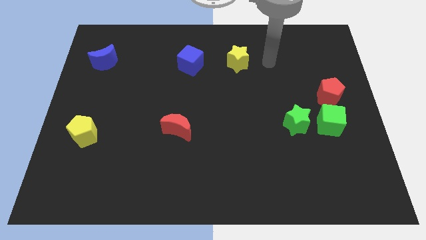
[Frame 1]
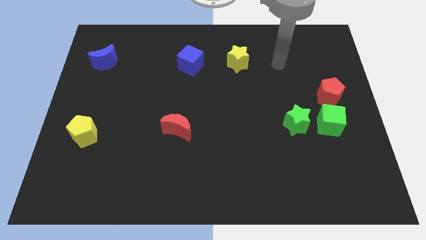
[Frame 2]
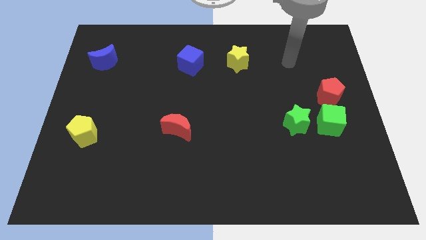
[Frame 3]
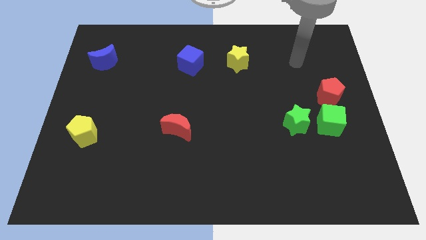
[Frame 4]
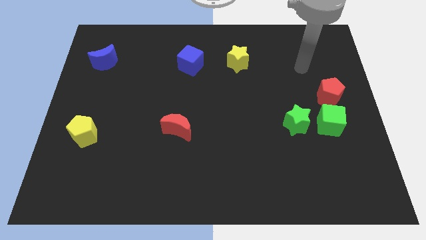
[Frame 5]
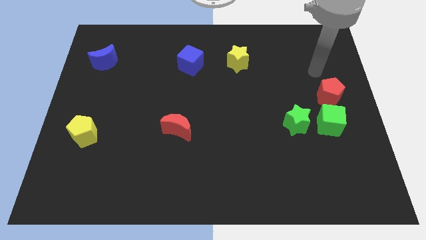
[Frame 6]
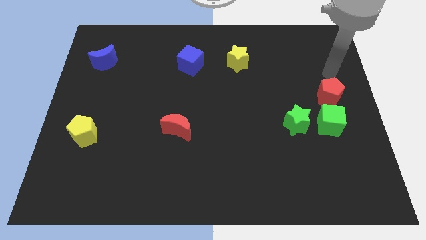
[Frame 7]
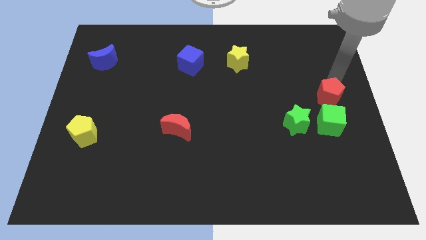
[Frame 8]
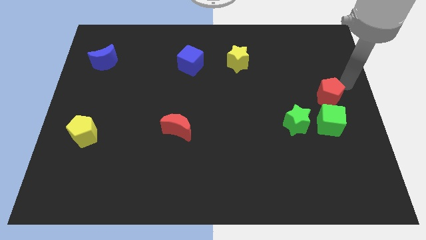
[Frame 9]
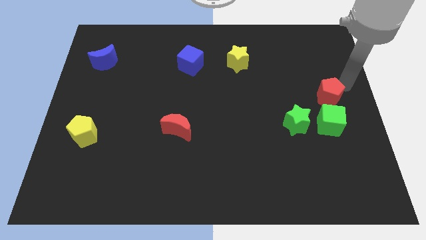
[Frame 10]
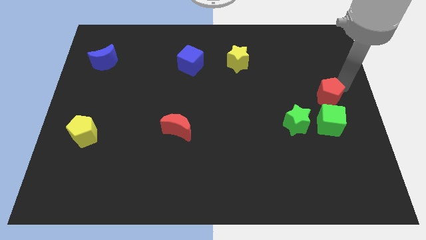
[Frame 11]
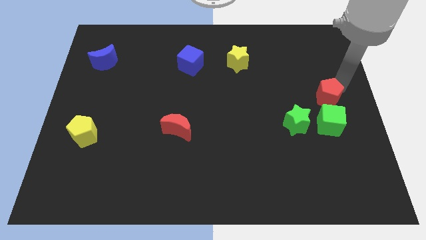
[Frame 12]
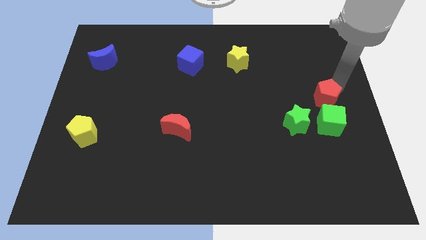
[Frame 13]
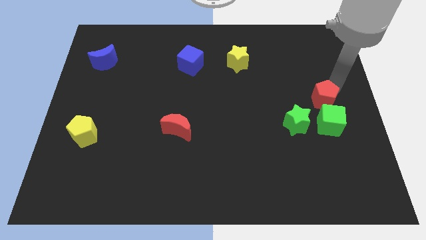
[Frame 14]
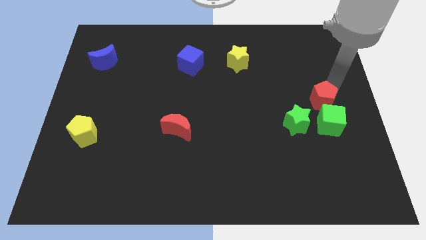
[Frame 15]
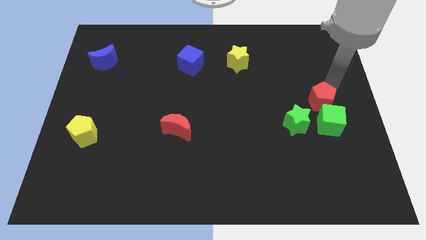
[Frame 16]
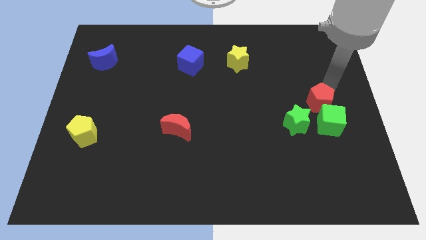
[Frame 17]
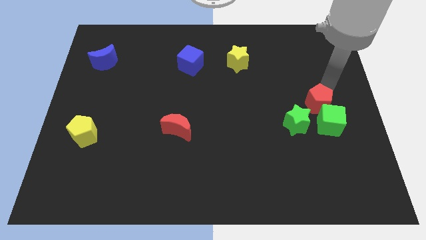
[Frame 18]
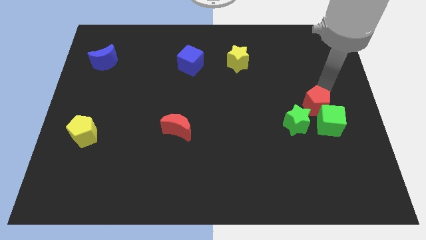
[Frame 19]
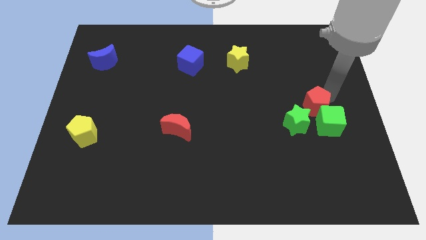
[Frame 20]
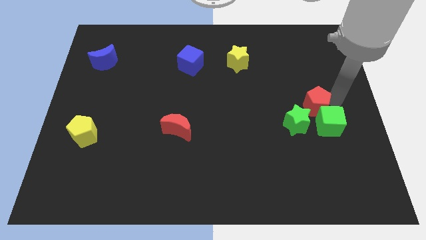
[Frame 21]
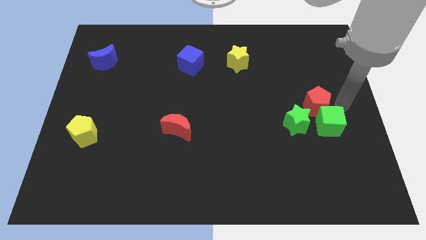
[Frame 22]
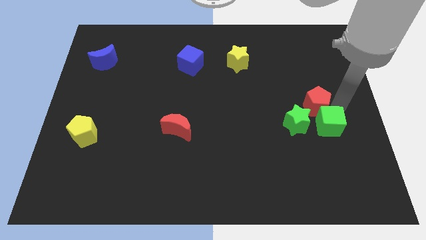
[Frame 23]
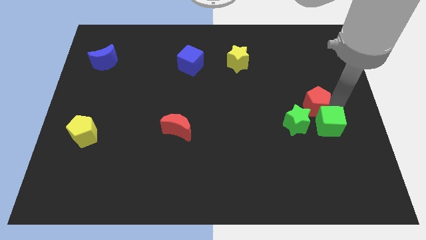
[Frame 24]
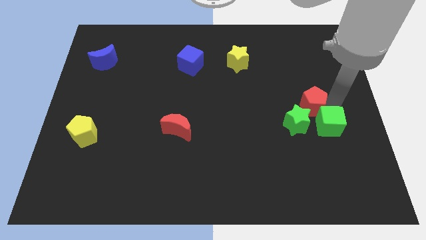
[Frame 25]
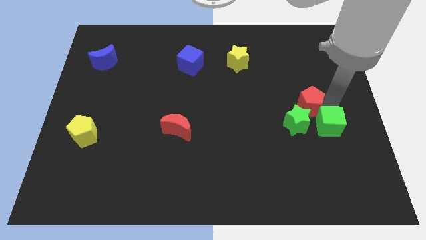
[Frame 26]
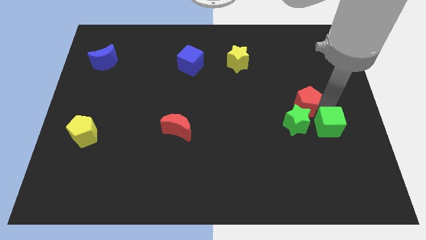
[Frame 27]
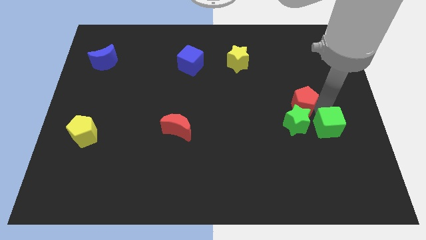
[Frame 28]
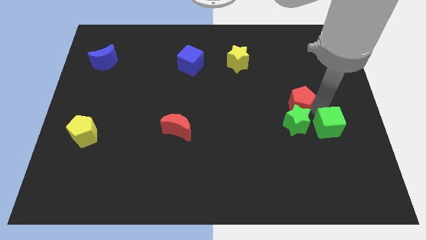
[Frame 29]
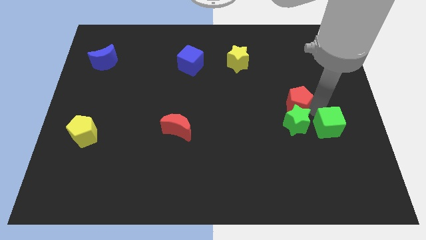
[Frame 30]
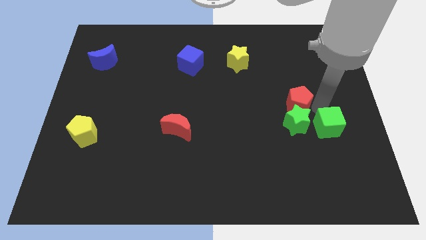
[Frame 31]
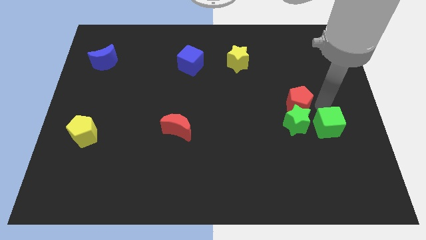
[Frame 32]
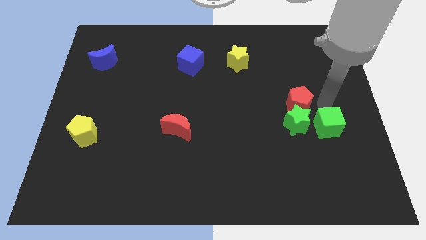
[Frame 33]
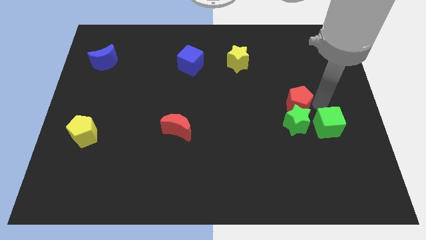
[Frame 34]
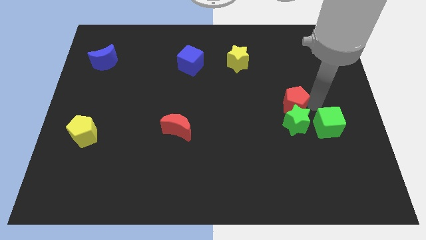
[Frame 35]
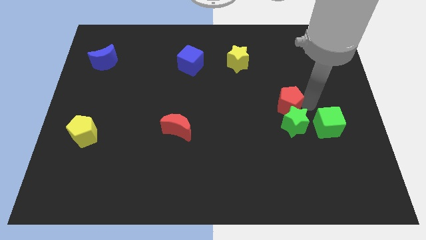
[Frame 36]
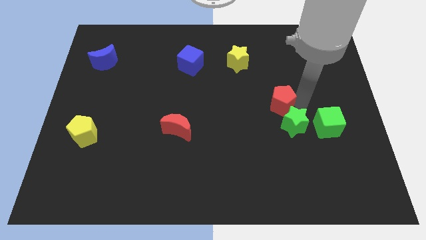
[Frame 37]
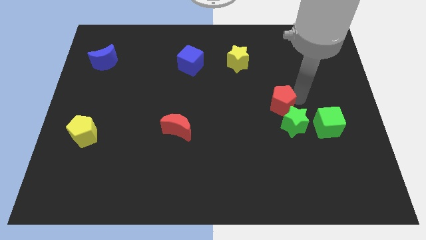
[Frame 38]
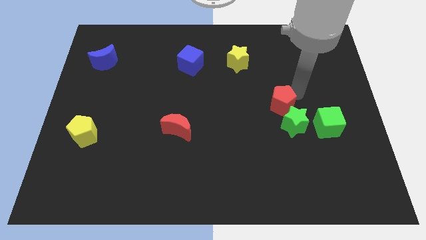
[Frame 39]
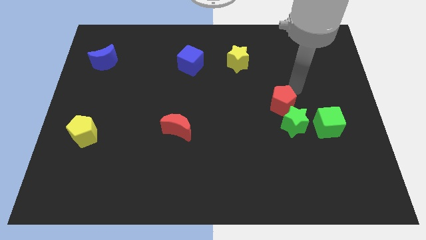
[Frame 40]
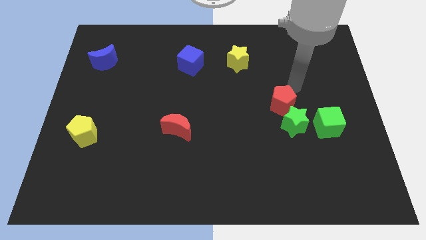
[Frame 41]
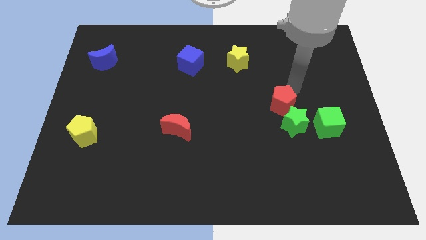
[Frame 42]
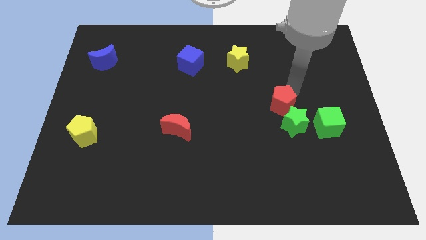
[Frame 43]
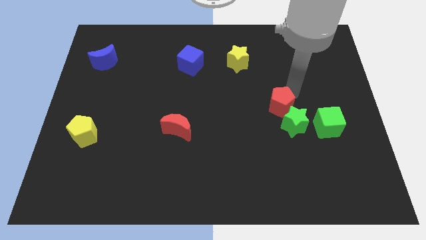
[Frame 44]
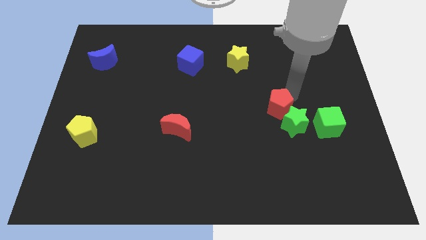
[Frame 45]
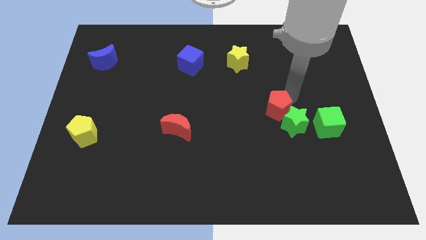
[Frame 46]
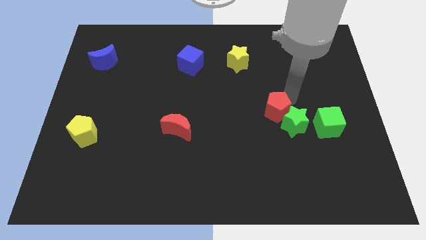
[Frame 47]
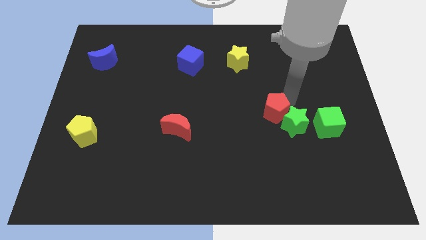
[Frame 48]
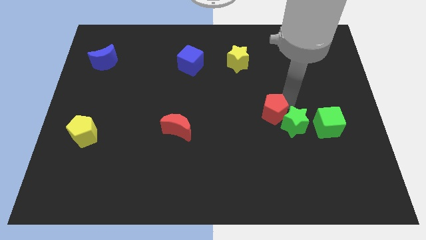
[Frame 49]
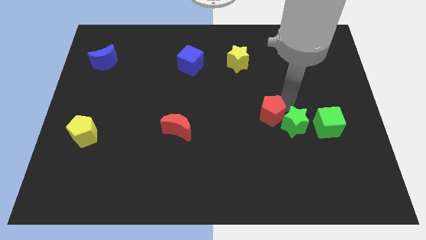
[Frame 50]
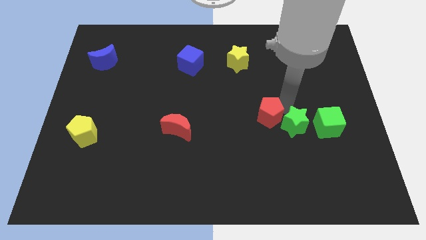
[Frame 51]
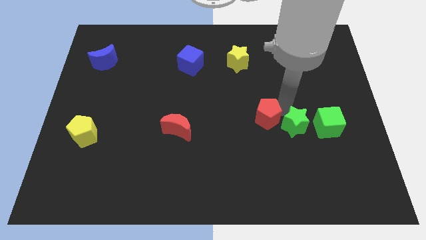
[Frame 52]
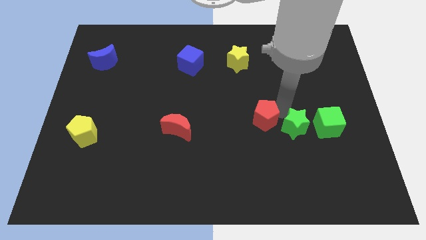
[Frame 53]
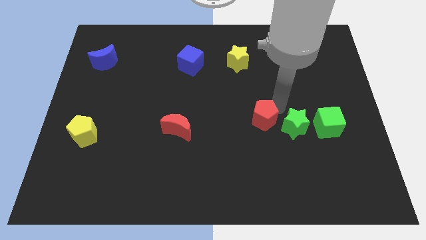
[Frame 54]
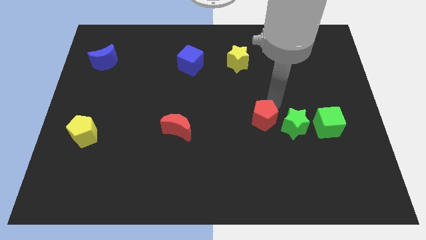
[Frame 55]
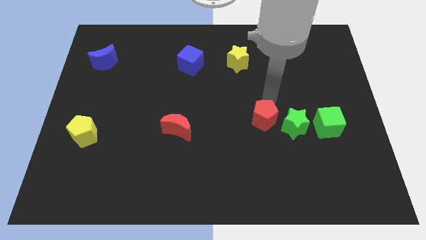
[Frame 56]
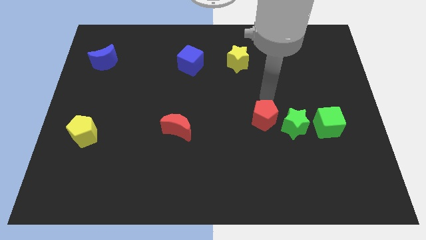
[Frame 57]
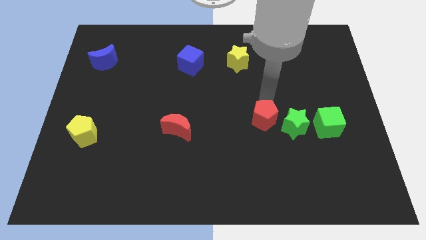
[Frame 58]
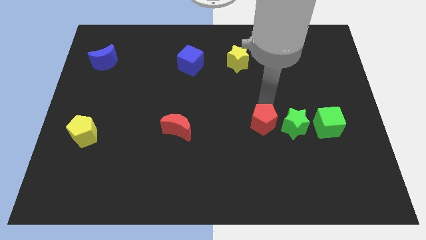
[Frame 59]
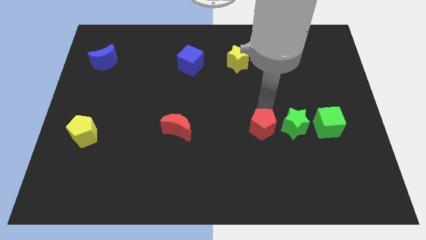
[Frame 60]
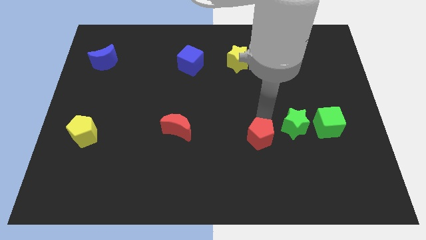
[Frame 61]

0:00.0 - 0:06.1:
slide the red pentagon downwards and left diagonally

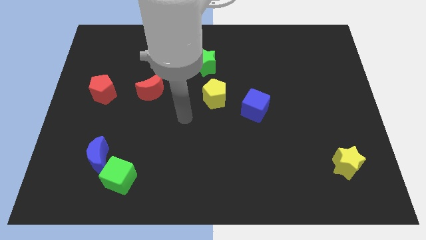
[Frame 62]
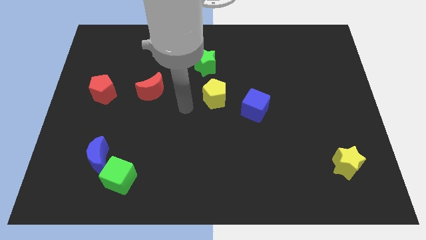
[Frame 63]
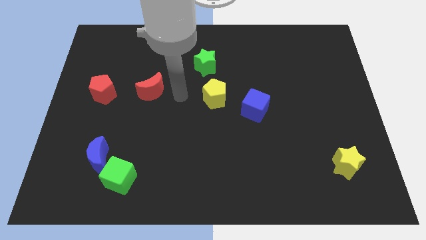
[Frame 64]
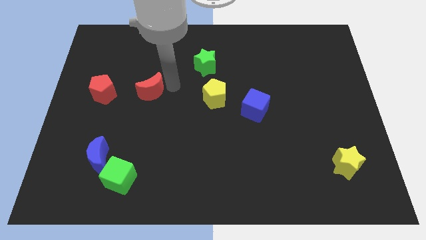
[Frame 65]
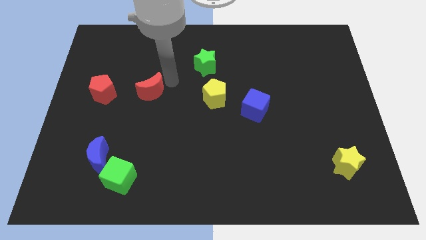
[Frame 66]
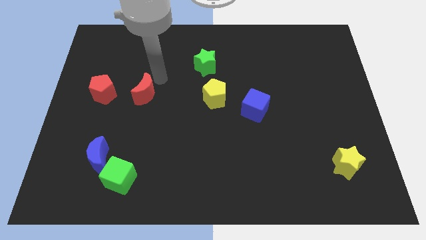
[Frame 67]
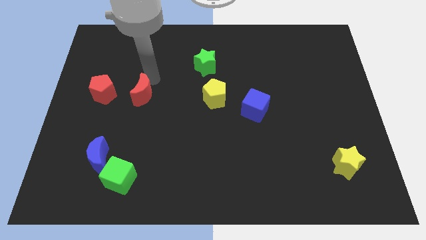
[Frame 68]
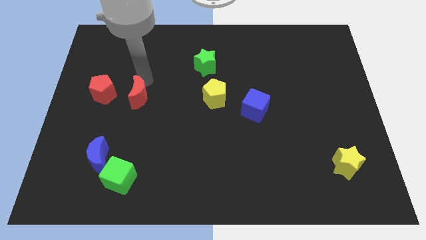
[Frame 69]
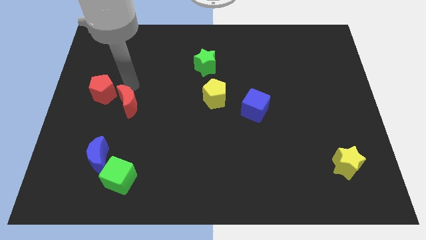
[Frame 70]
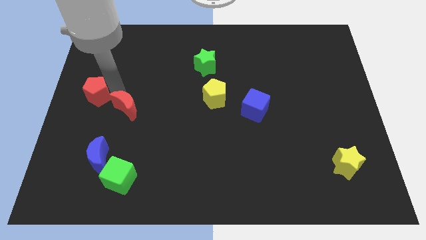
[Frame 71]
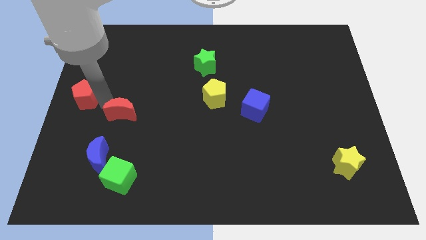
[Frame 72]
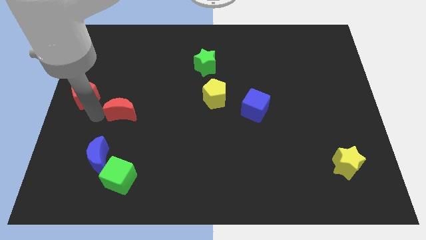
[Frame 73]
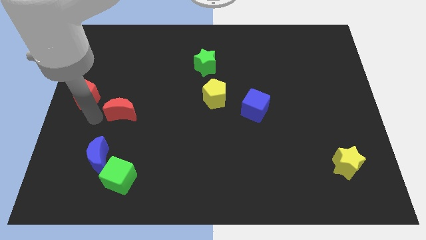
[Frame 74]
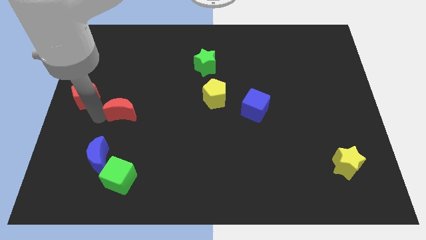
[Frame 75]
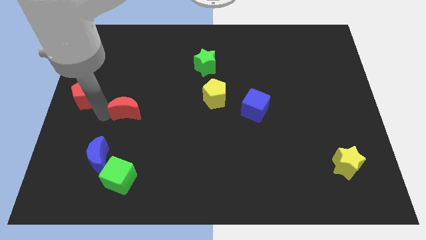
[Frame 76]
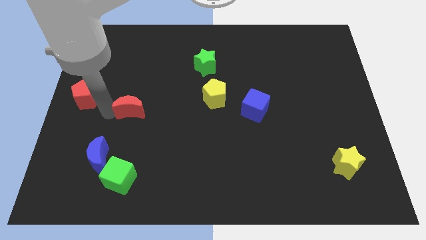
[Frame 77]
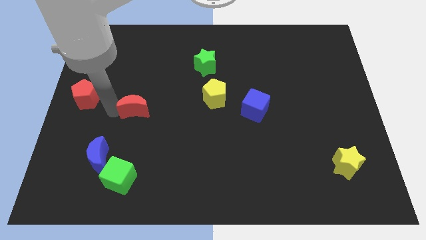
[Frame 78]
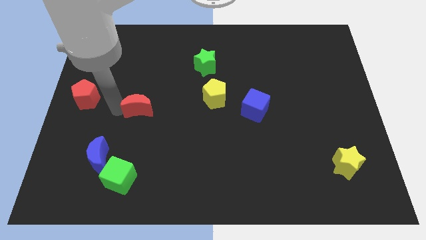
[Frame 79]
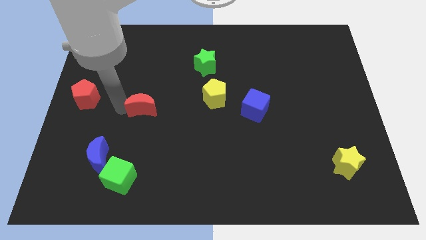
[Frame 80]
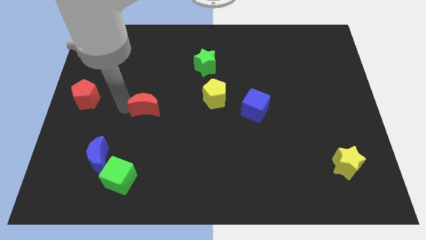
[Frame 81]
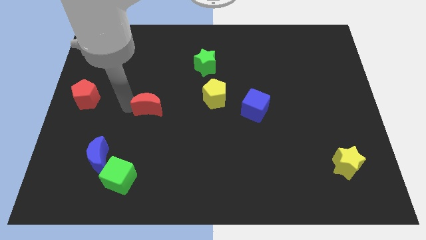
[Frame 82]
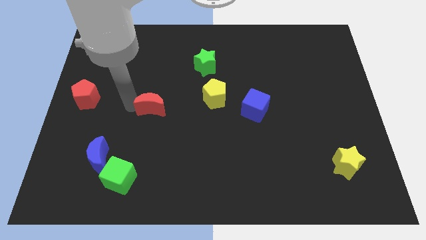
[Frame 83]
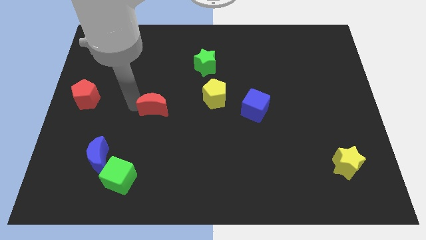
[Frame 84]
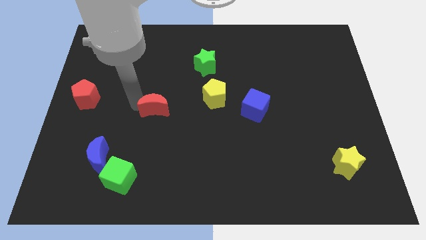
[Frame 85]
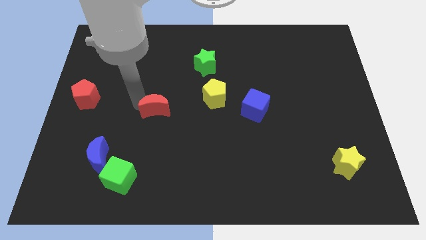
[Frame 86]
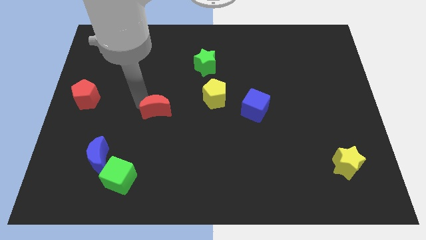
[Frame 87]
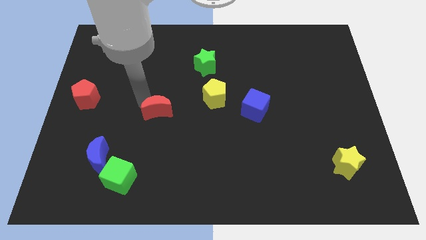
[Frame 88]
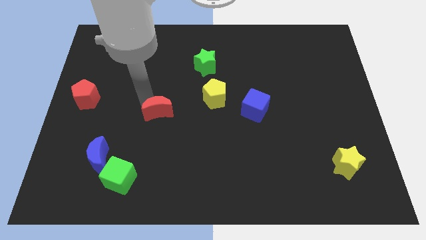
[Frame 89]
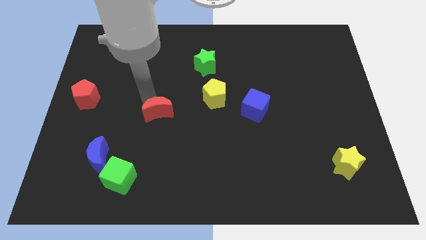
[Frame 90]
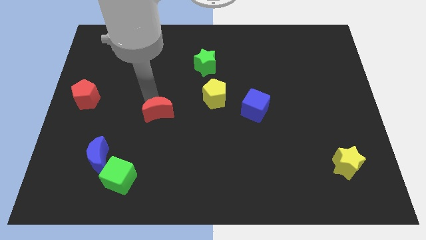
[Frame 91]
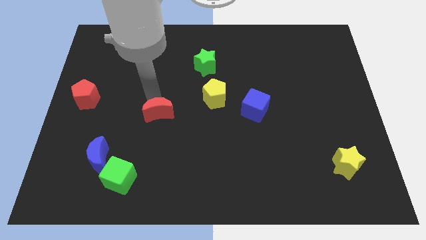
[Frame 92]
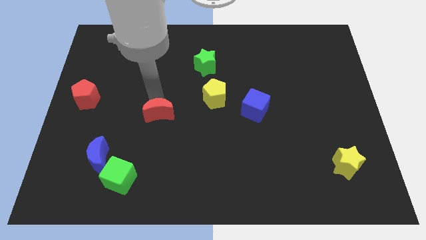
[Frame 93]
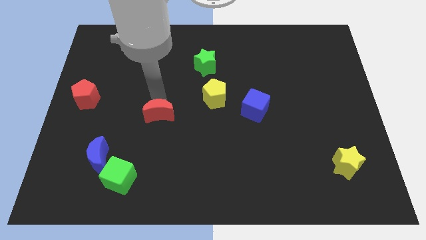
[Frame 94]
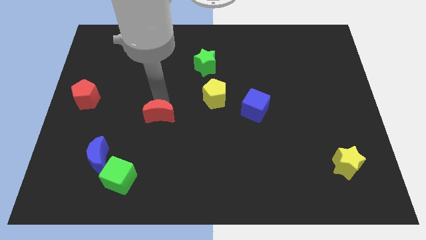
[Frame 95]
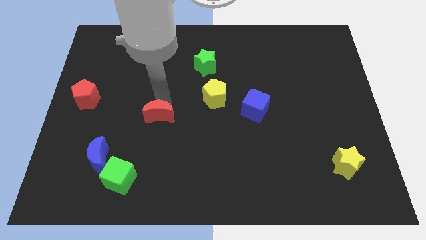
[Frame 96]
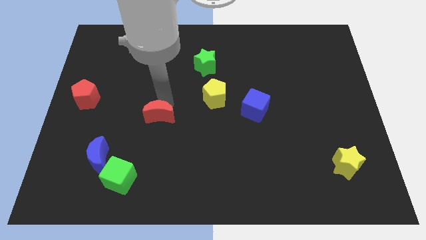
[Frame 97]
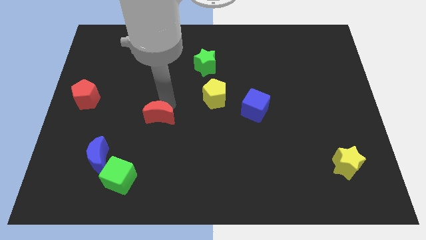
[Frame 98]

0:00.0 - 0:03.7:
move the red moon down and right diagonally a bit
